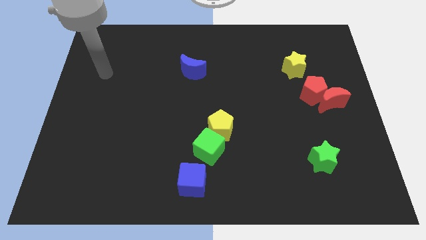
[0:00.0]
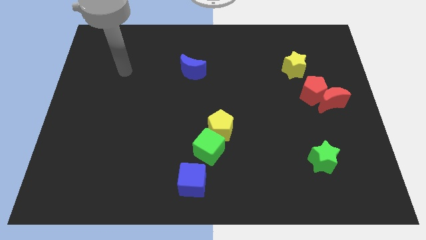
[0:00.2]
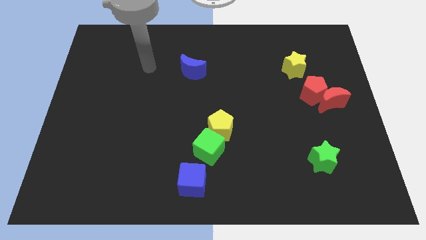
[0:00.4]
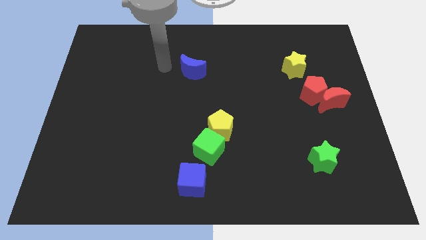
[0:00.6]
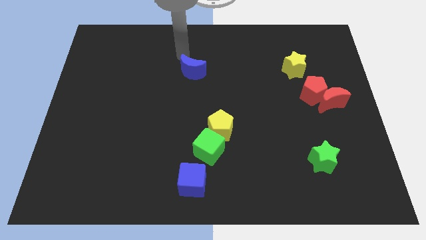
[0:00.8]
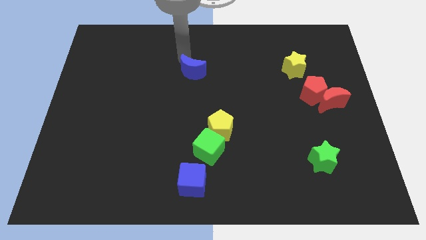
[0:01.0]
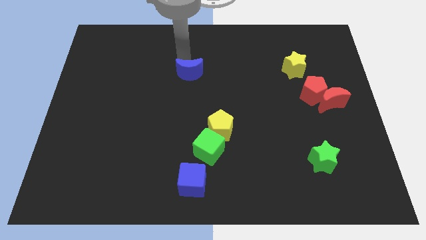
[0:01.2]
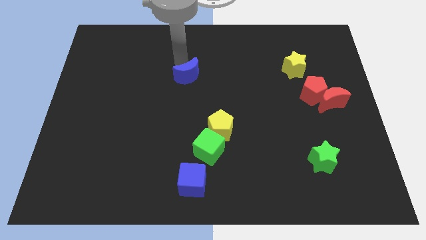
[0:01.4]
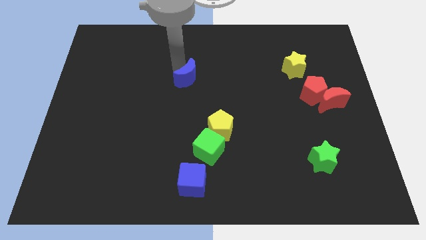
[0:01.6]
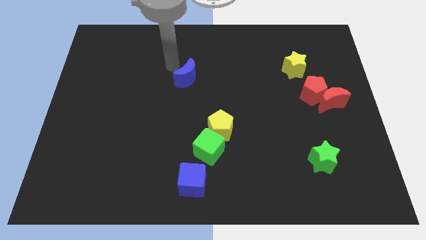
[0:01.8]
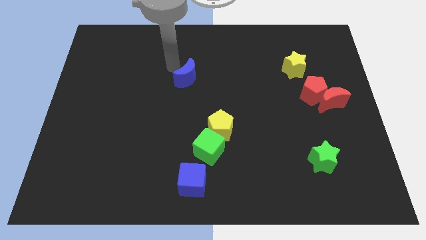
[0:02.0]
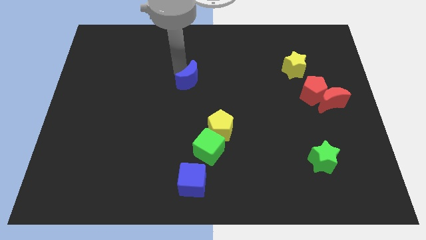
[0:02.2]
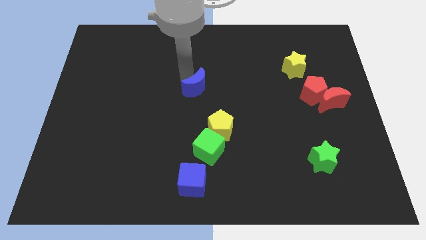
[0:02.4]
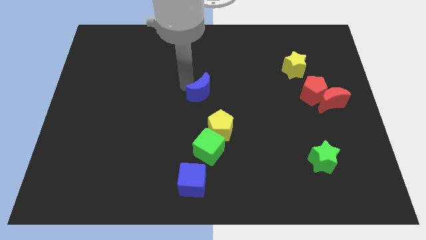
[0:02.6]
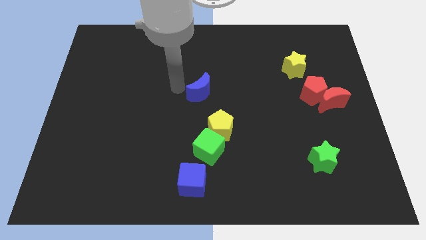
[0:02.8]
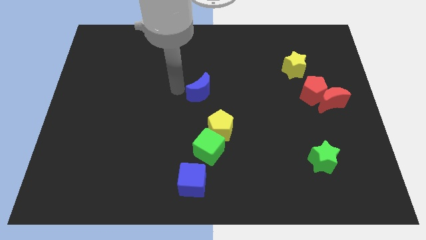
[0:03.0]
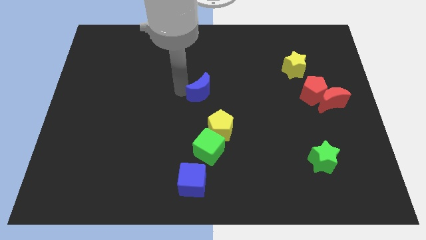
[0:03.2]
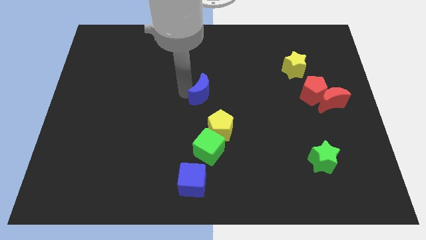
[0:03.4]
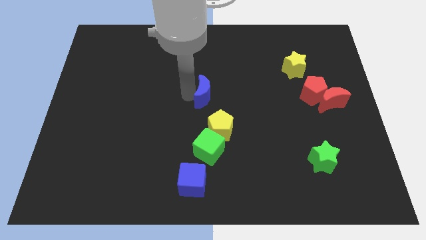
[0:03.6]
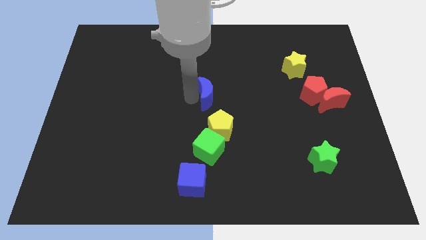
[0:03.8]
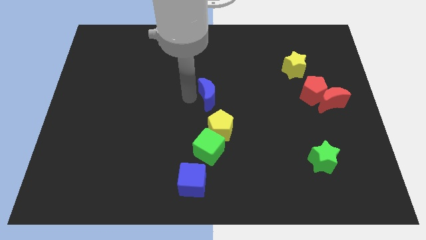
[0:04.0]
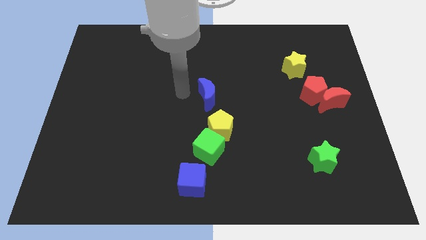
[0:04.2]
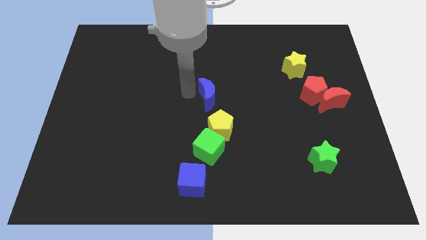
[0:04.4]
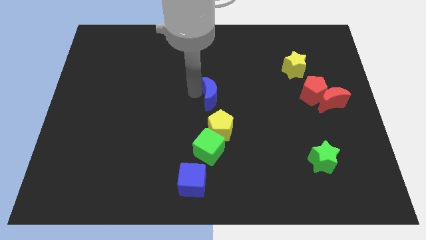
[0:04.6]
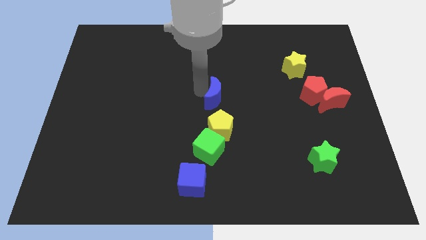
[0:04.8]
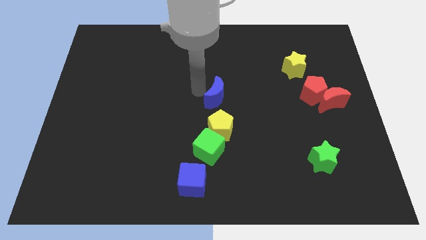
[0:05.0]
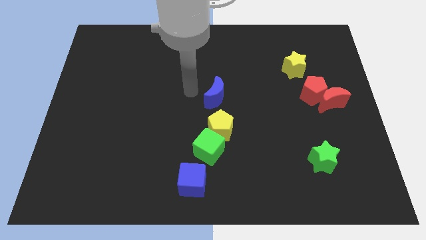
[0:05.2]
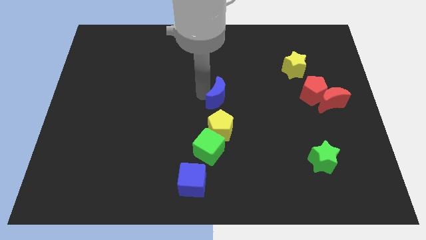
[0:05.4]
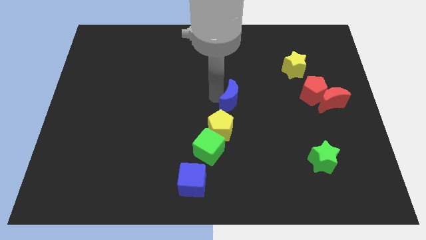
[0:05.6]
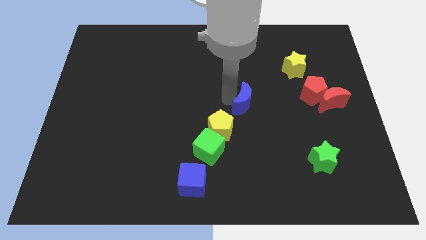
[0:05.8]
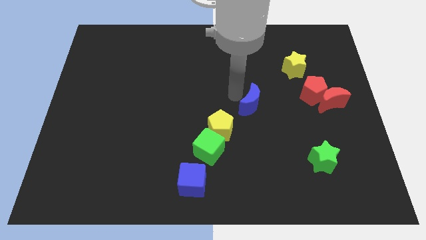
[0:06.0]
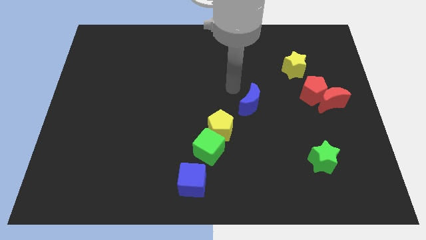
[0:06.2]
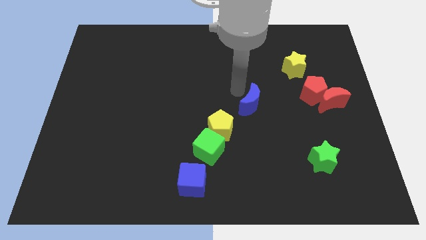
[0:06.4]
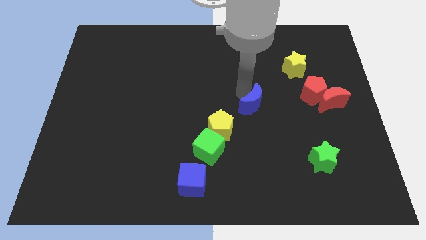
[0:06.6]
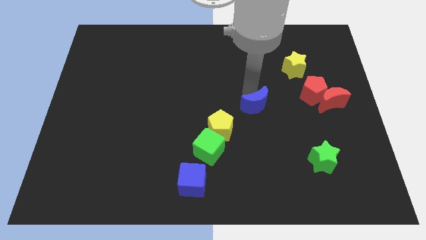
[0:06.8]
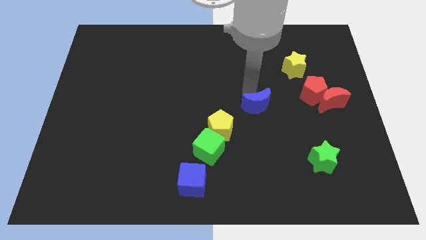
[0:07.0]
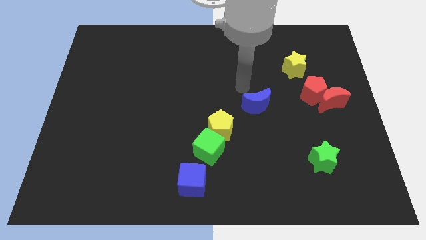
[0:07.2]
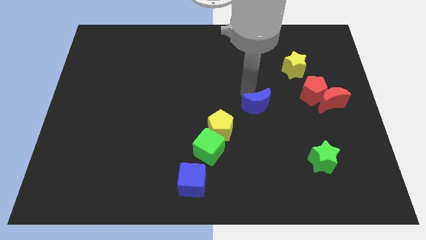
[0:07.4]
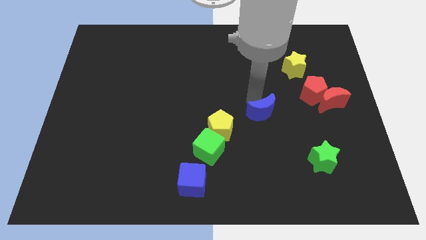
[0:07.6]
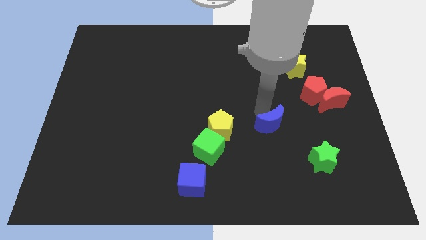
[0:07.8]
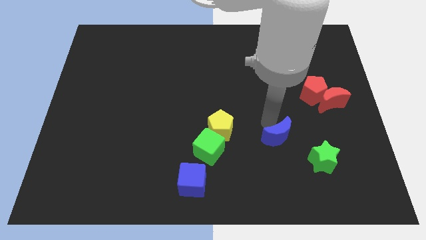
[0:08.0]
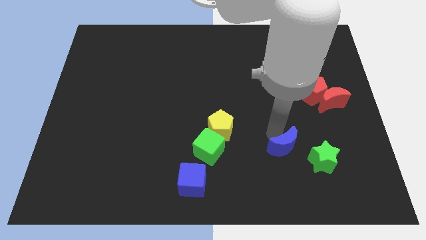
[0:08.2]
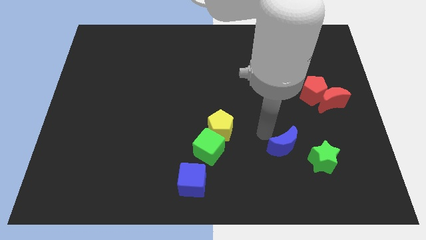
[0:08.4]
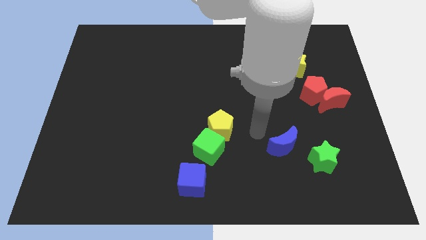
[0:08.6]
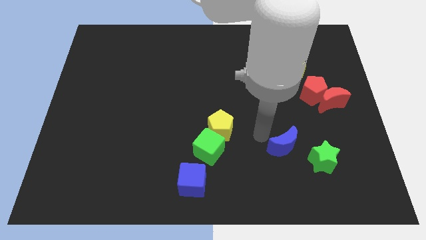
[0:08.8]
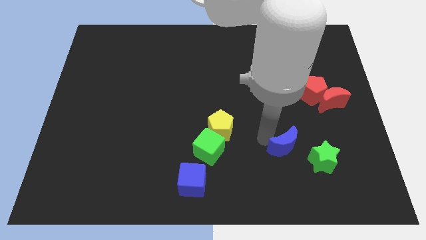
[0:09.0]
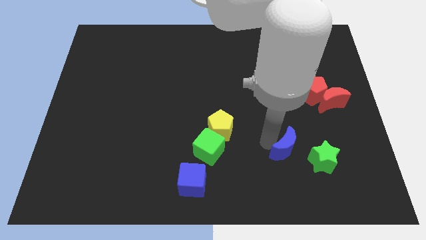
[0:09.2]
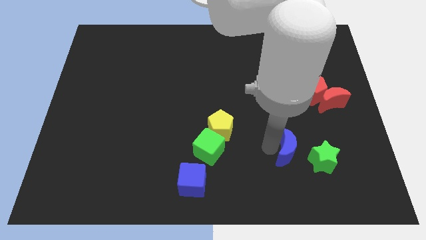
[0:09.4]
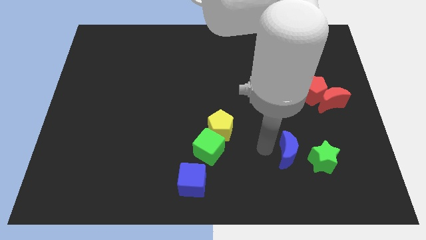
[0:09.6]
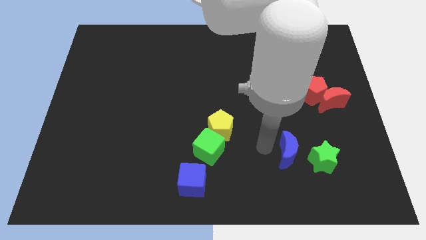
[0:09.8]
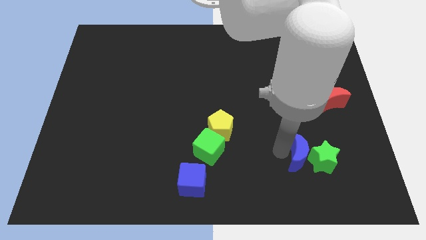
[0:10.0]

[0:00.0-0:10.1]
push the blue moon to the green star

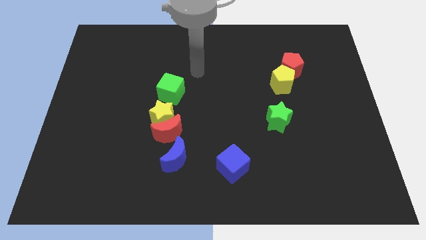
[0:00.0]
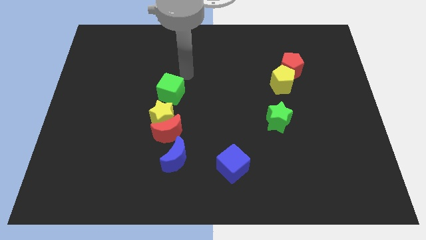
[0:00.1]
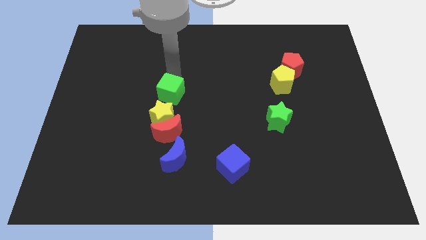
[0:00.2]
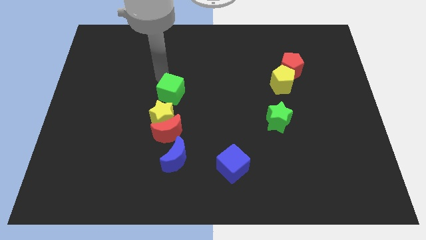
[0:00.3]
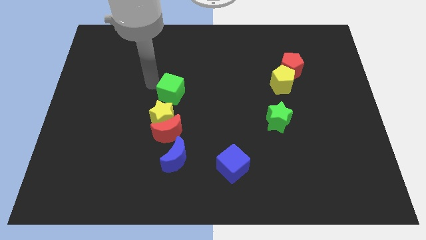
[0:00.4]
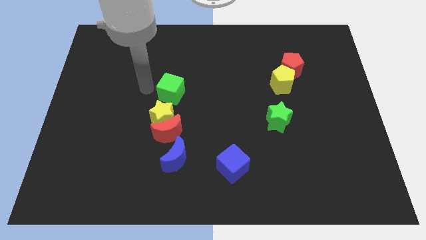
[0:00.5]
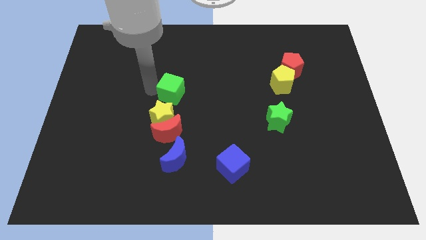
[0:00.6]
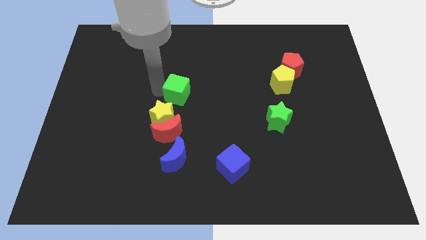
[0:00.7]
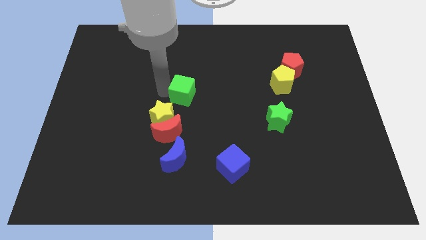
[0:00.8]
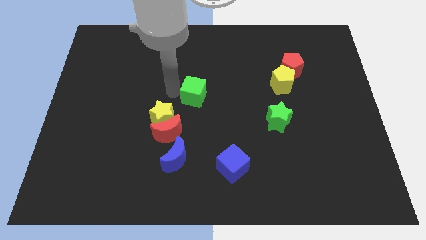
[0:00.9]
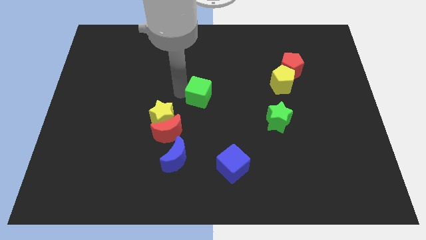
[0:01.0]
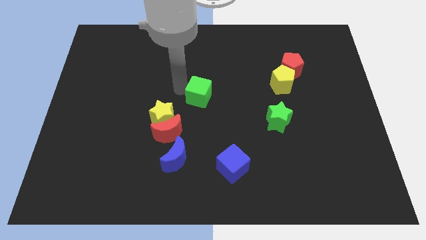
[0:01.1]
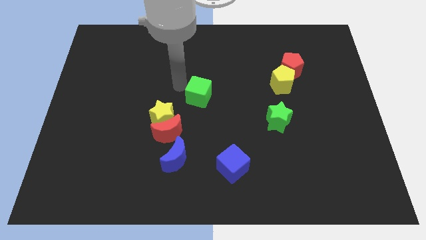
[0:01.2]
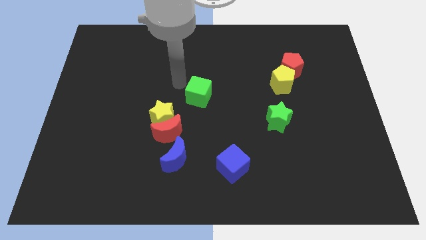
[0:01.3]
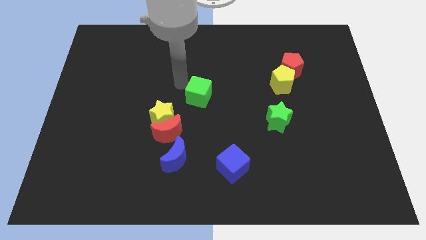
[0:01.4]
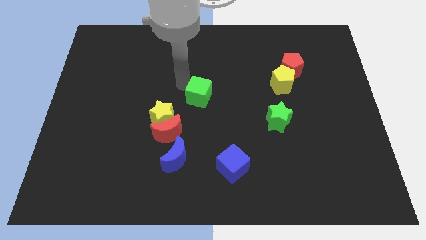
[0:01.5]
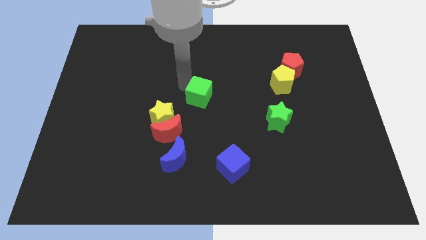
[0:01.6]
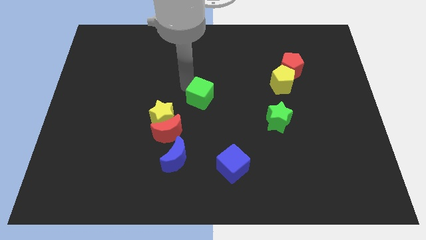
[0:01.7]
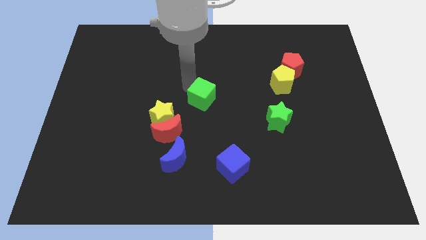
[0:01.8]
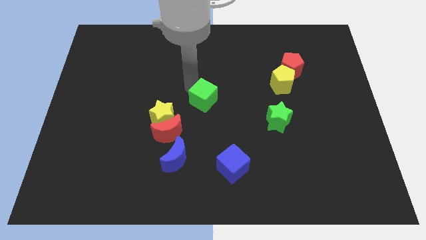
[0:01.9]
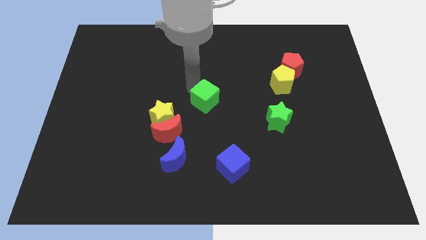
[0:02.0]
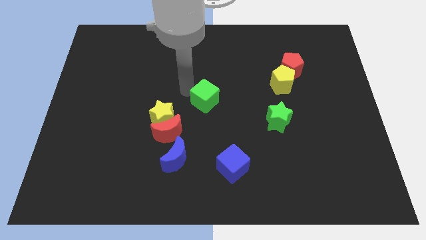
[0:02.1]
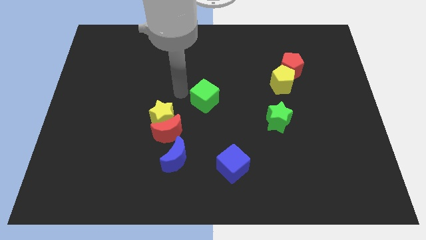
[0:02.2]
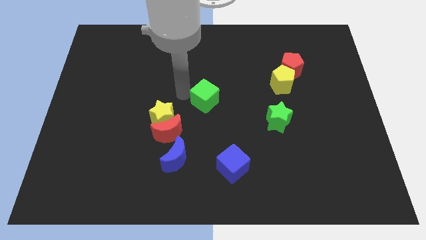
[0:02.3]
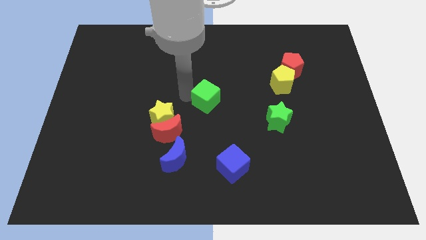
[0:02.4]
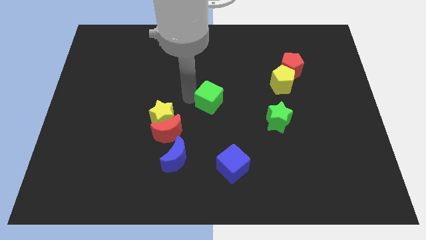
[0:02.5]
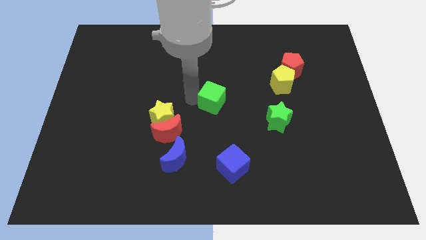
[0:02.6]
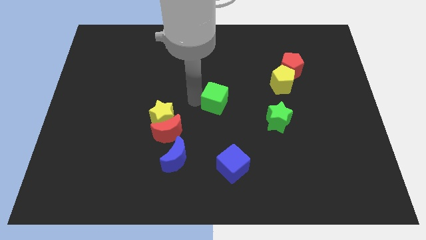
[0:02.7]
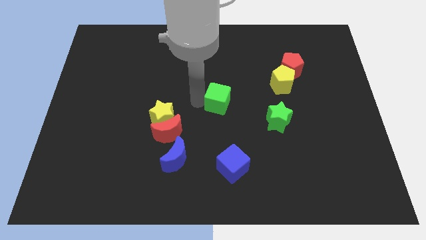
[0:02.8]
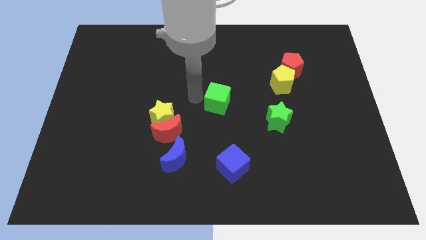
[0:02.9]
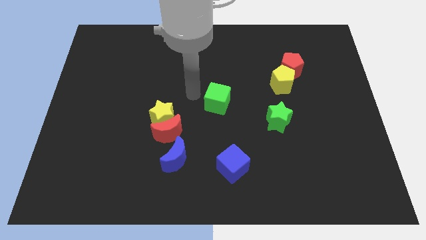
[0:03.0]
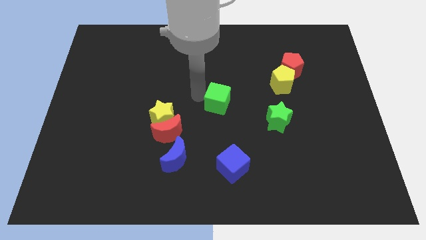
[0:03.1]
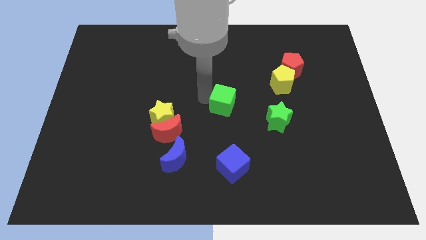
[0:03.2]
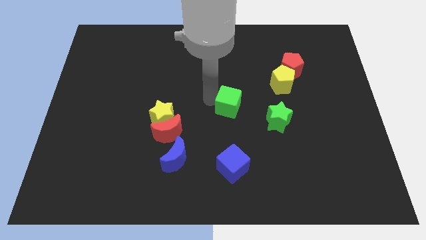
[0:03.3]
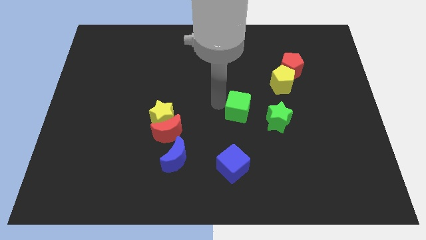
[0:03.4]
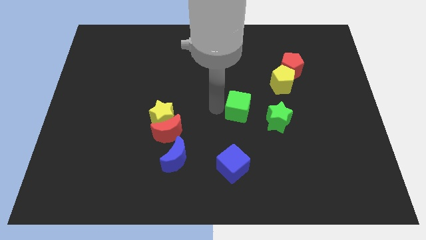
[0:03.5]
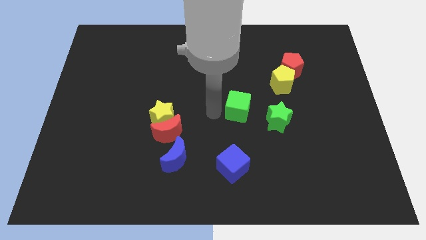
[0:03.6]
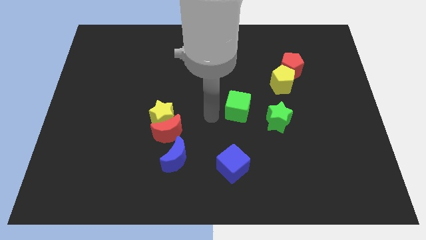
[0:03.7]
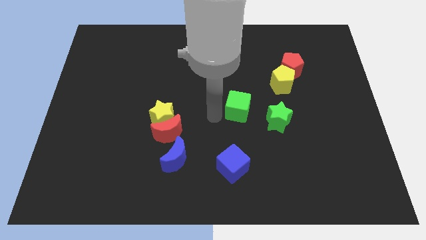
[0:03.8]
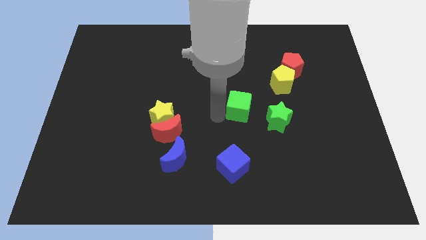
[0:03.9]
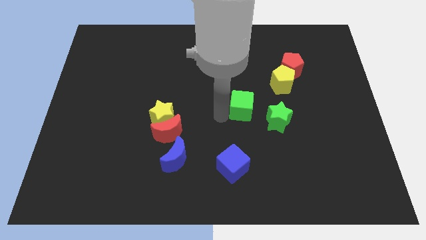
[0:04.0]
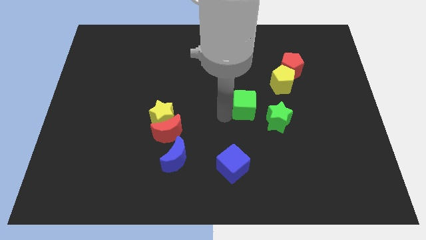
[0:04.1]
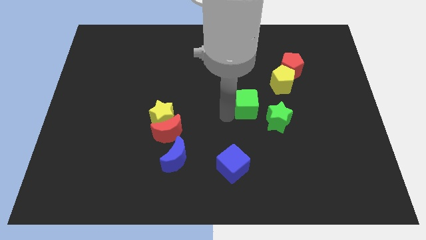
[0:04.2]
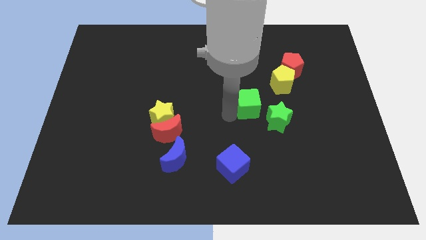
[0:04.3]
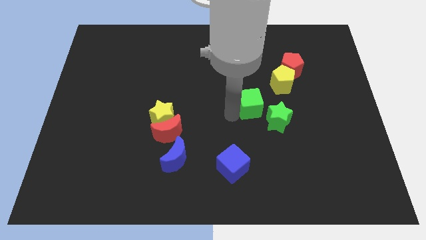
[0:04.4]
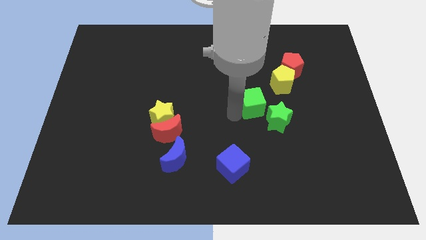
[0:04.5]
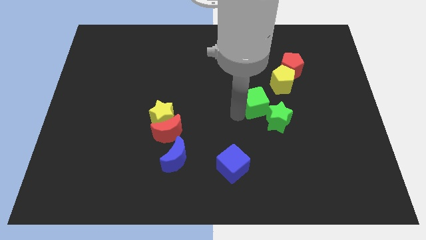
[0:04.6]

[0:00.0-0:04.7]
put the green cube close to the green star
